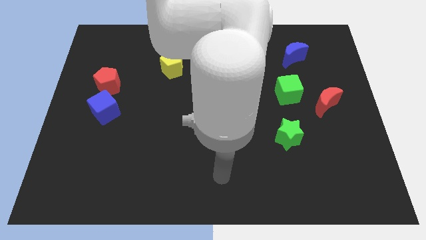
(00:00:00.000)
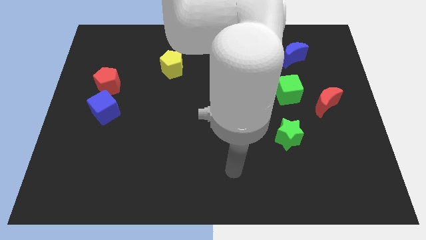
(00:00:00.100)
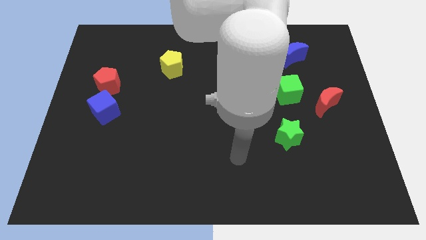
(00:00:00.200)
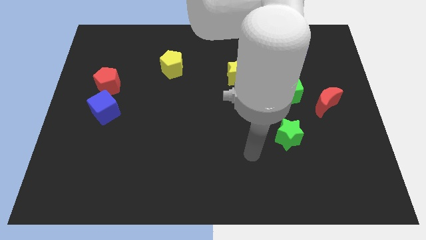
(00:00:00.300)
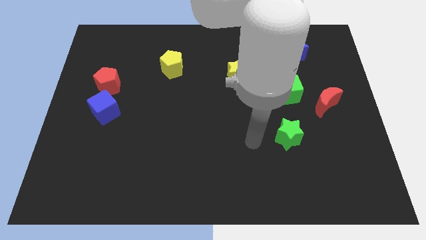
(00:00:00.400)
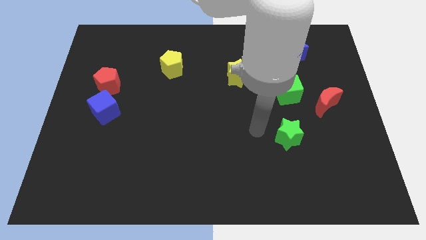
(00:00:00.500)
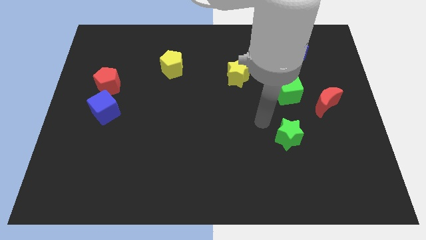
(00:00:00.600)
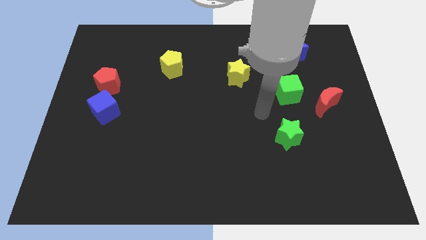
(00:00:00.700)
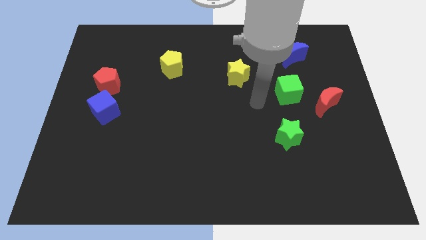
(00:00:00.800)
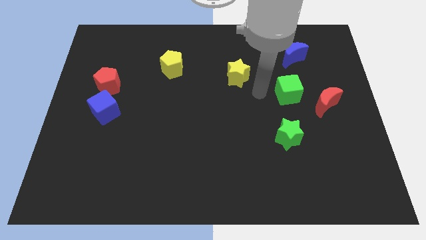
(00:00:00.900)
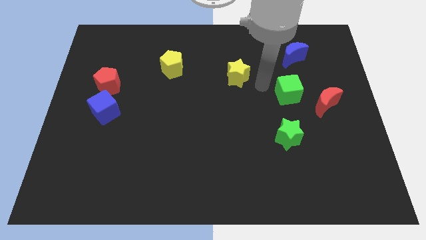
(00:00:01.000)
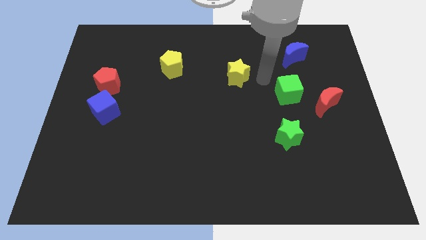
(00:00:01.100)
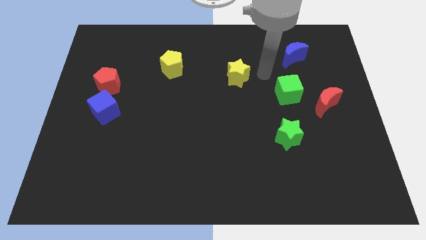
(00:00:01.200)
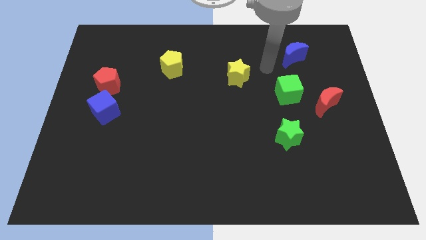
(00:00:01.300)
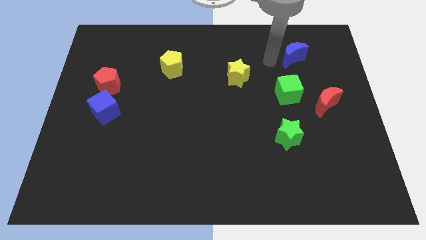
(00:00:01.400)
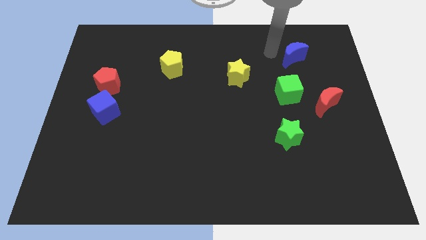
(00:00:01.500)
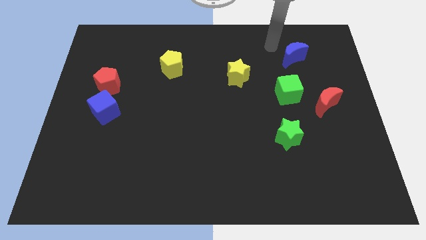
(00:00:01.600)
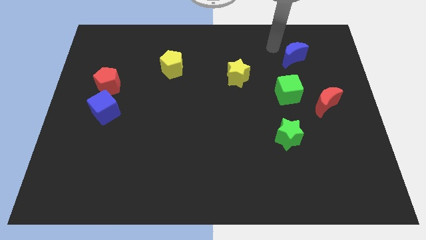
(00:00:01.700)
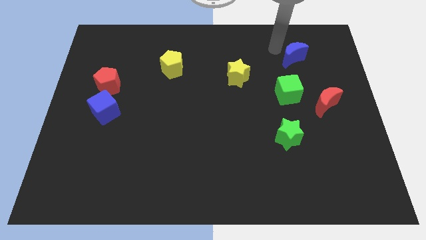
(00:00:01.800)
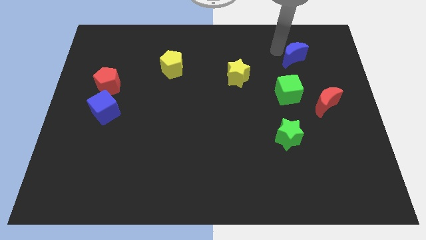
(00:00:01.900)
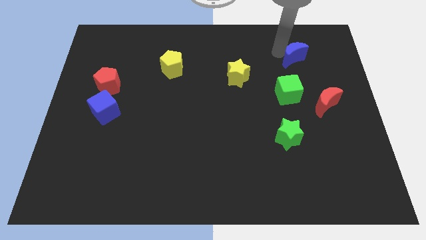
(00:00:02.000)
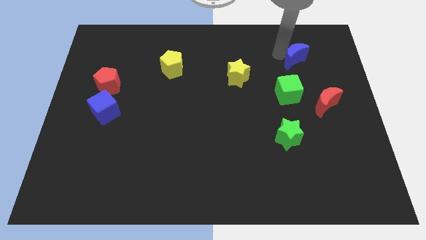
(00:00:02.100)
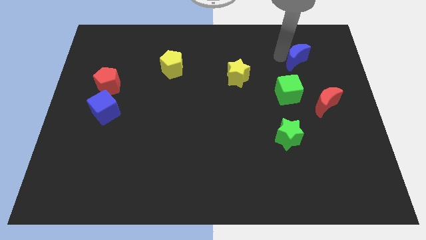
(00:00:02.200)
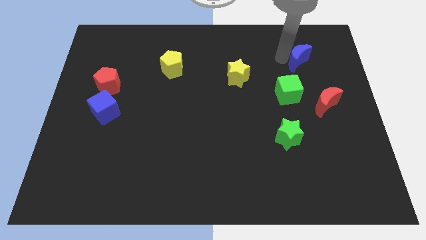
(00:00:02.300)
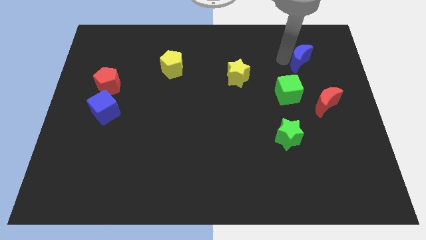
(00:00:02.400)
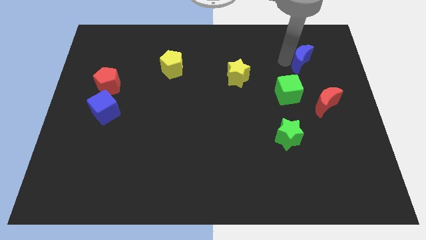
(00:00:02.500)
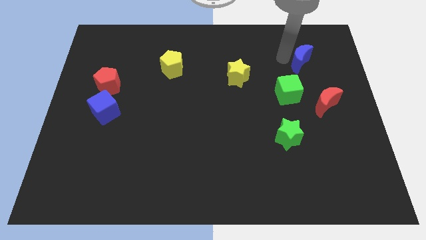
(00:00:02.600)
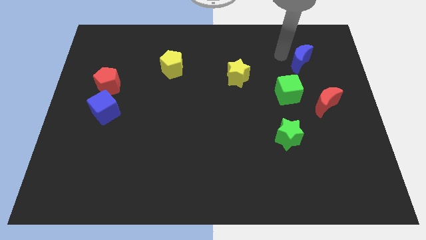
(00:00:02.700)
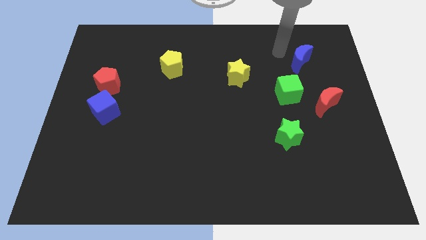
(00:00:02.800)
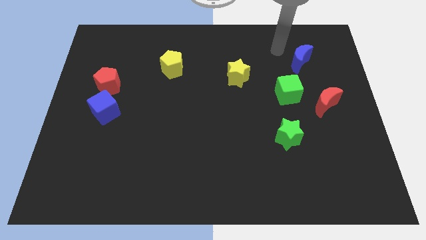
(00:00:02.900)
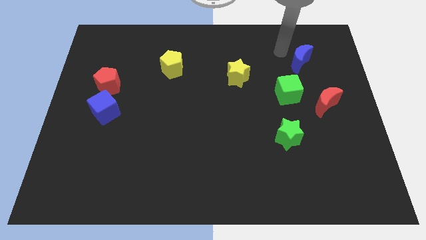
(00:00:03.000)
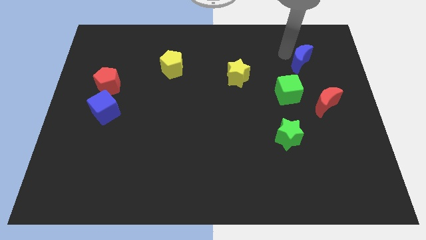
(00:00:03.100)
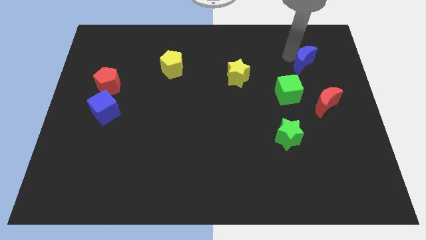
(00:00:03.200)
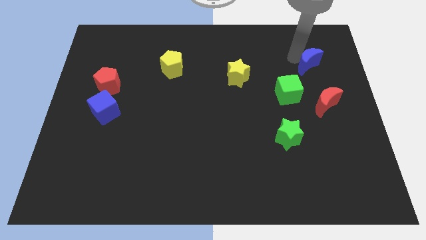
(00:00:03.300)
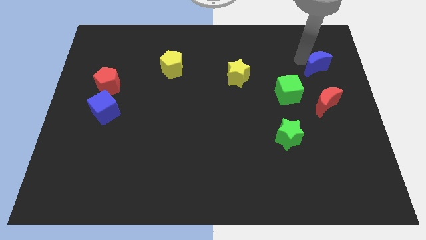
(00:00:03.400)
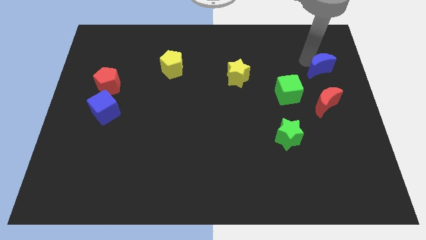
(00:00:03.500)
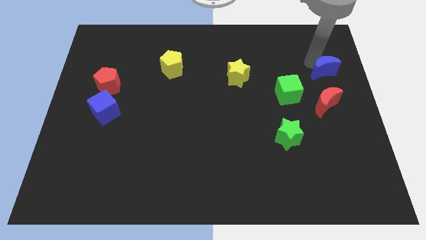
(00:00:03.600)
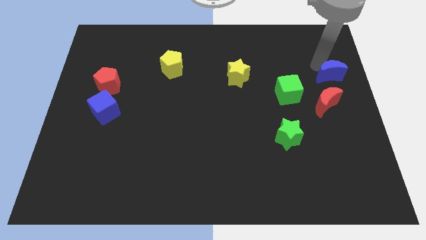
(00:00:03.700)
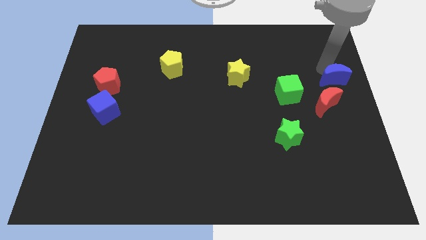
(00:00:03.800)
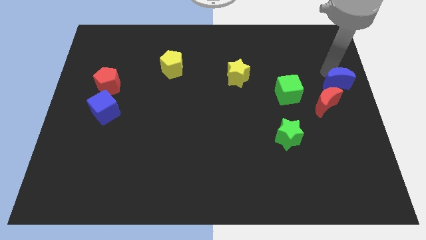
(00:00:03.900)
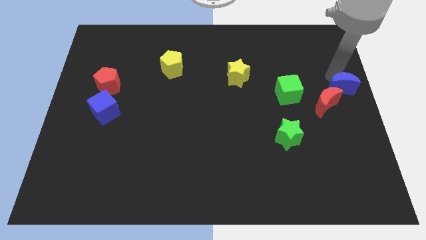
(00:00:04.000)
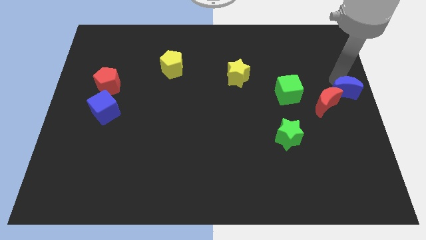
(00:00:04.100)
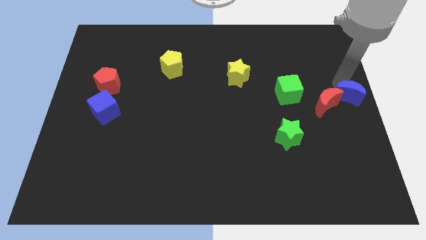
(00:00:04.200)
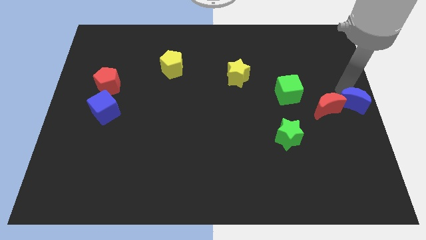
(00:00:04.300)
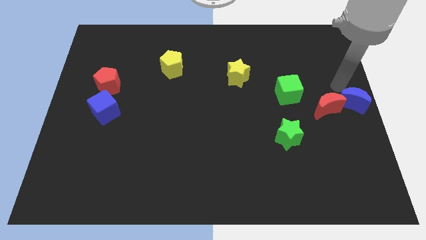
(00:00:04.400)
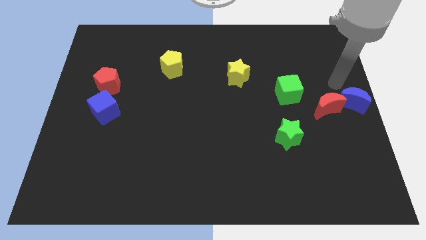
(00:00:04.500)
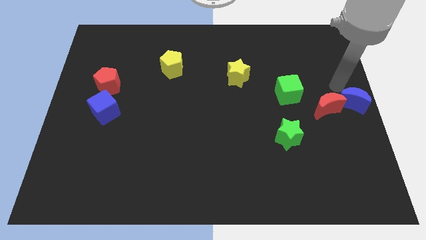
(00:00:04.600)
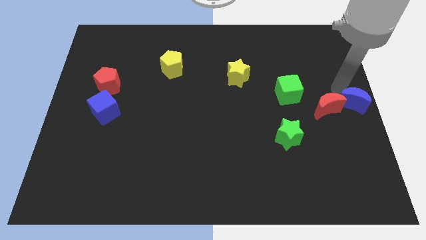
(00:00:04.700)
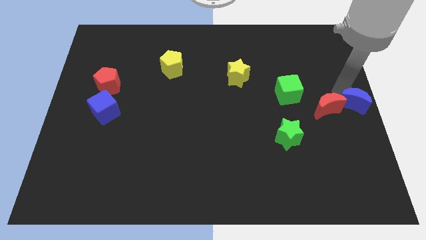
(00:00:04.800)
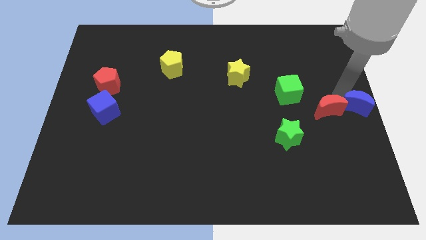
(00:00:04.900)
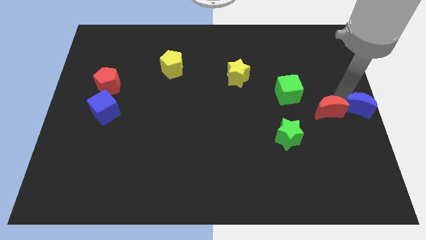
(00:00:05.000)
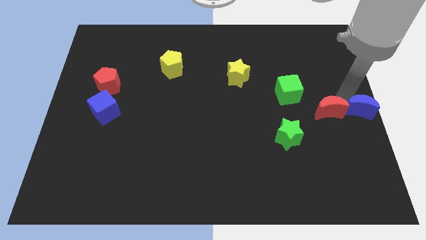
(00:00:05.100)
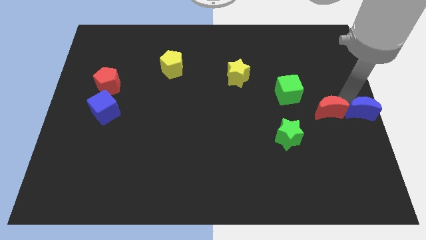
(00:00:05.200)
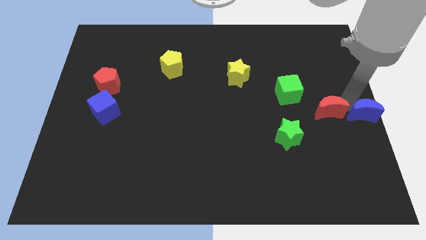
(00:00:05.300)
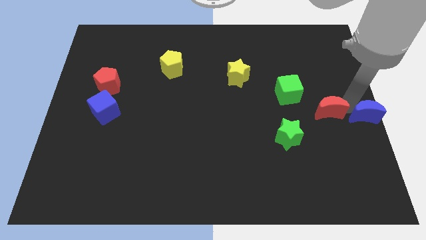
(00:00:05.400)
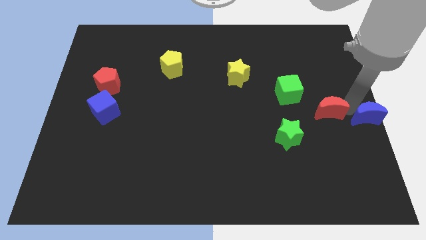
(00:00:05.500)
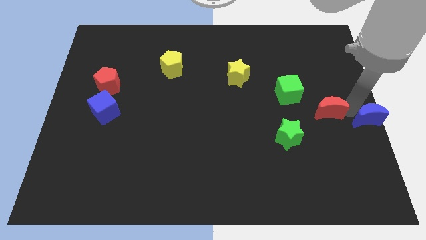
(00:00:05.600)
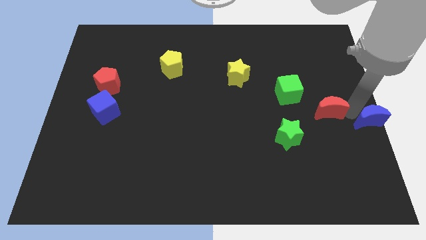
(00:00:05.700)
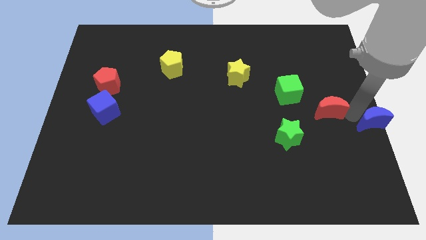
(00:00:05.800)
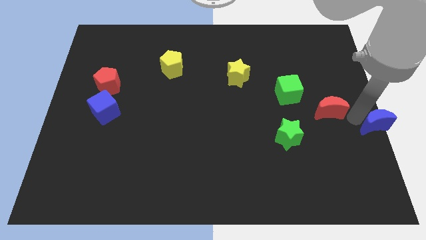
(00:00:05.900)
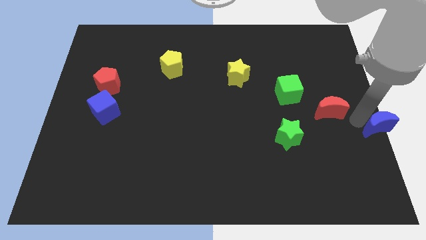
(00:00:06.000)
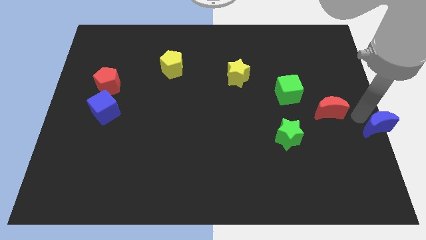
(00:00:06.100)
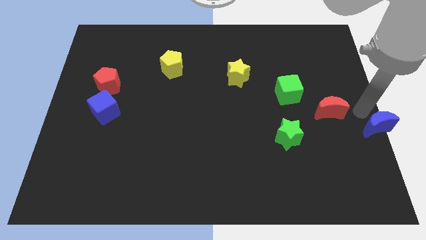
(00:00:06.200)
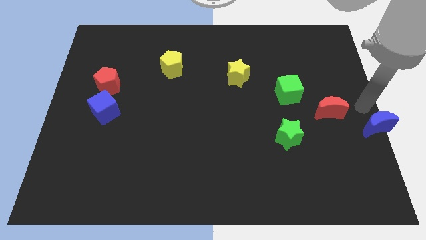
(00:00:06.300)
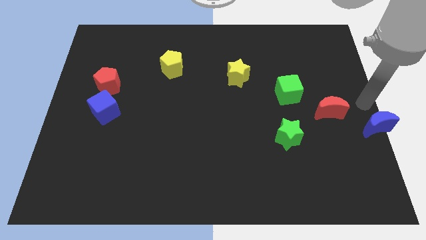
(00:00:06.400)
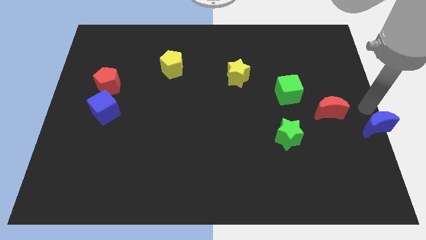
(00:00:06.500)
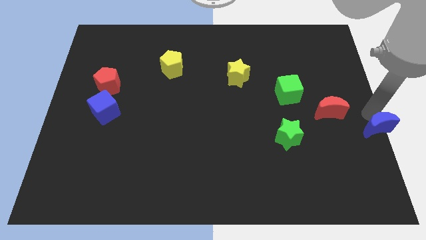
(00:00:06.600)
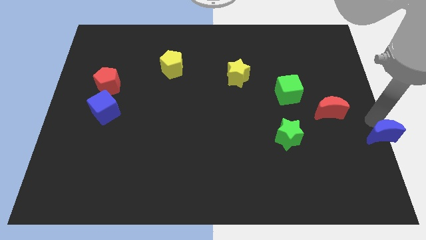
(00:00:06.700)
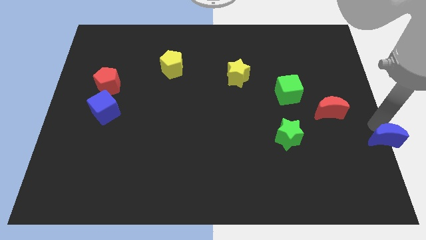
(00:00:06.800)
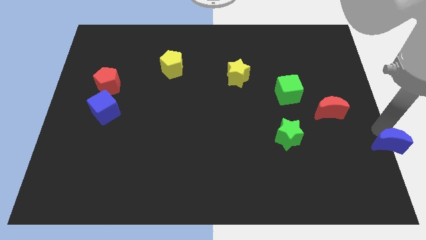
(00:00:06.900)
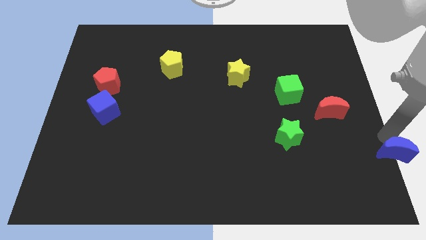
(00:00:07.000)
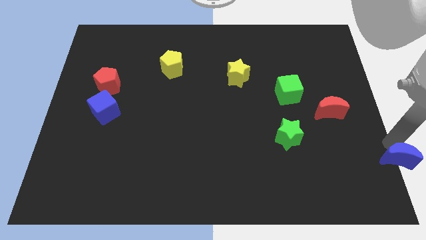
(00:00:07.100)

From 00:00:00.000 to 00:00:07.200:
slide the blue moon to the bottom right corner
